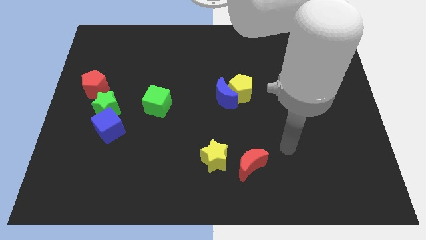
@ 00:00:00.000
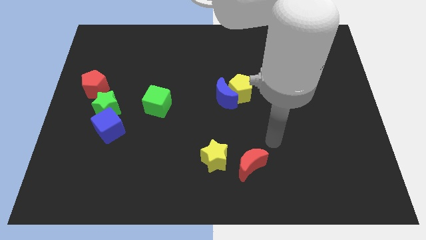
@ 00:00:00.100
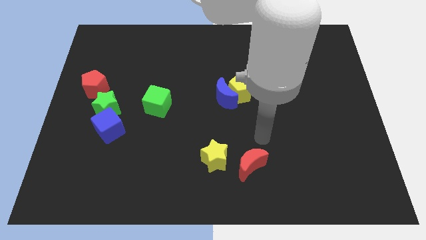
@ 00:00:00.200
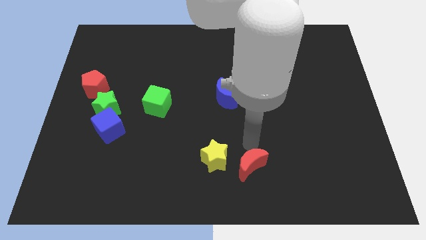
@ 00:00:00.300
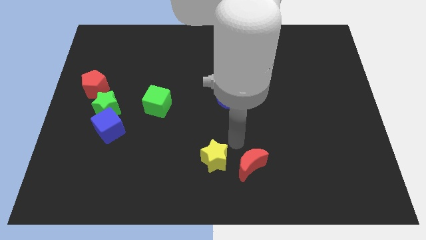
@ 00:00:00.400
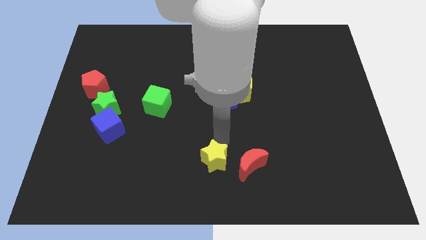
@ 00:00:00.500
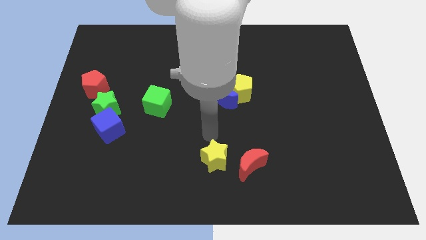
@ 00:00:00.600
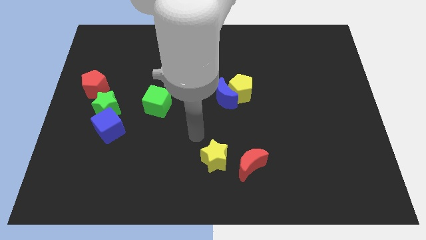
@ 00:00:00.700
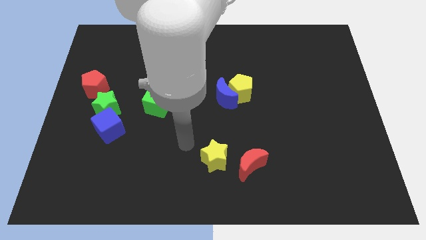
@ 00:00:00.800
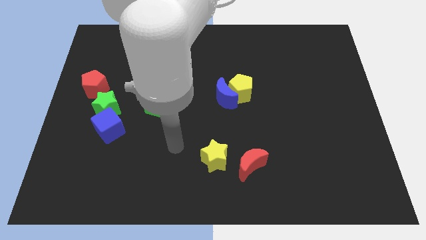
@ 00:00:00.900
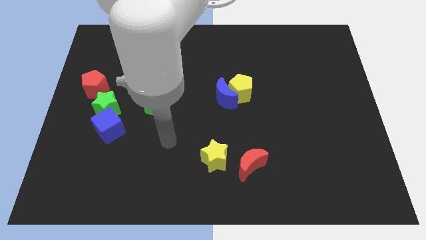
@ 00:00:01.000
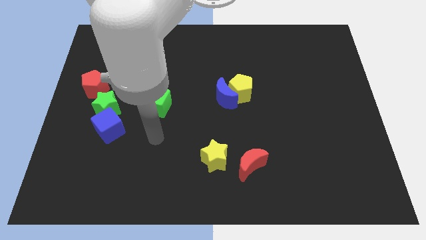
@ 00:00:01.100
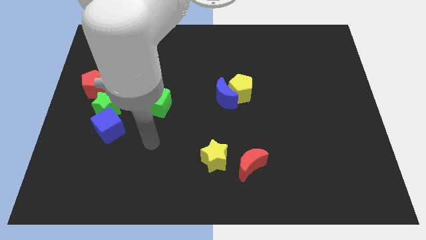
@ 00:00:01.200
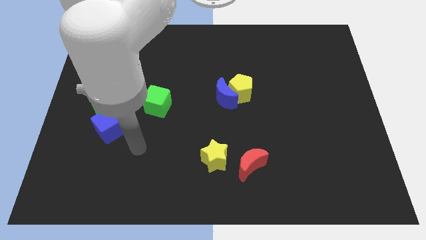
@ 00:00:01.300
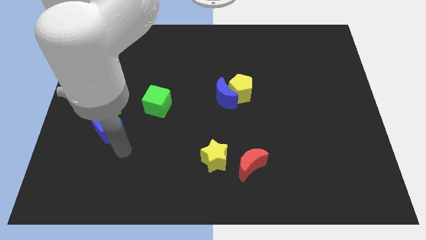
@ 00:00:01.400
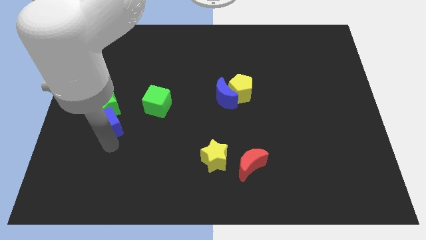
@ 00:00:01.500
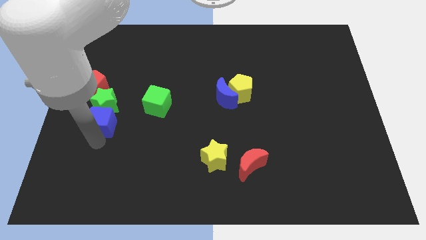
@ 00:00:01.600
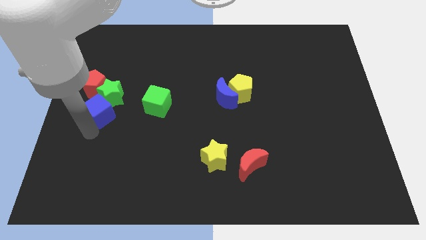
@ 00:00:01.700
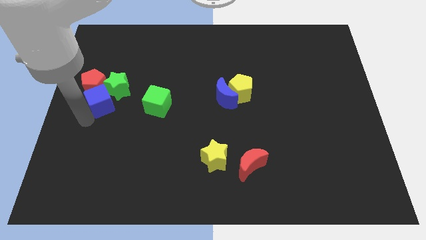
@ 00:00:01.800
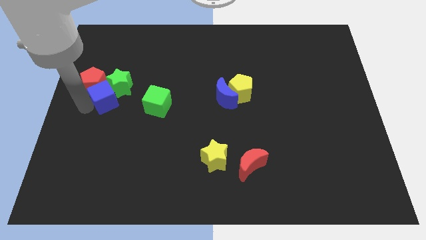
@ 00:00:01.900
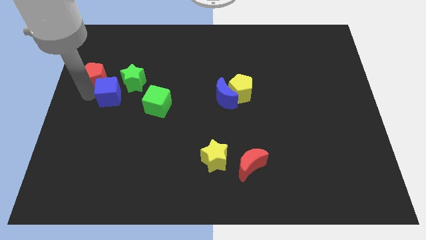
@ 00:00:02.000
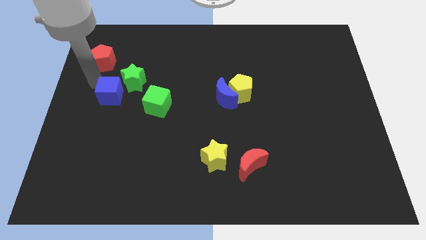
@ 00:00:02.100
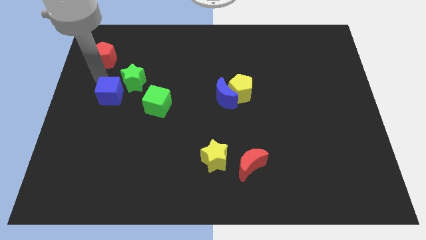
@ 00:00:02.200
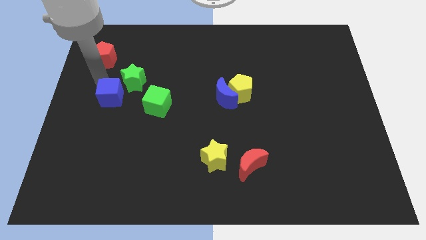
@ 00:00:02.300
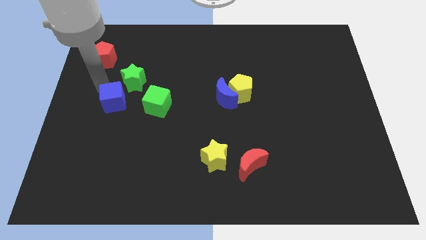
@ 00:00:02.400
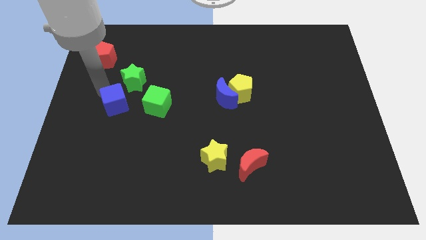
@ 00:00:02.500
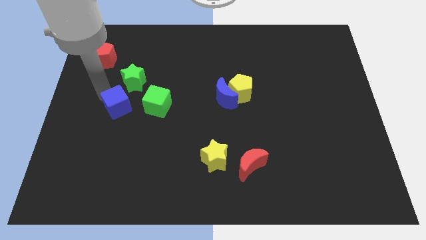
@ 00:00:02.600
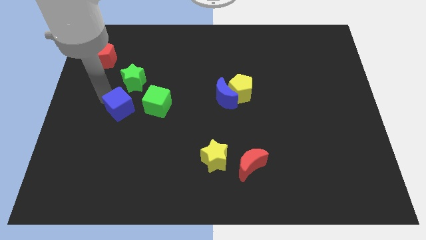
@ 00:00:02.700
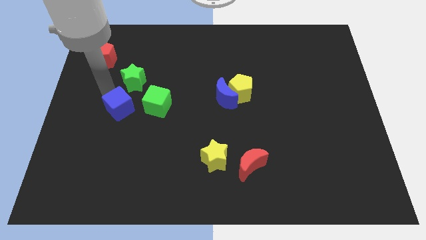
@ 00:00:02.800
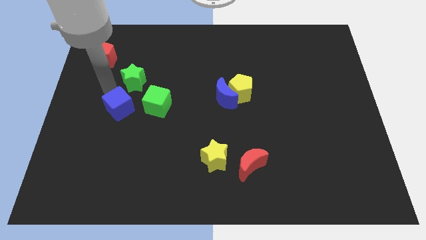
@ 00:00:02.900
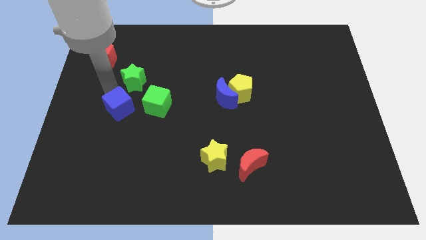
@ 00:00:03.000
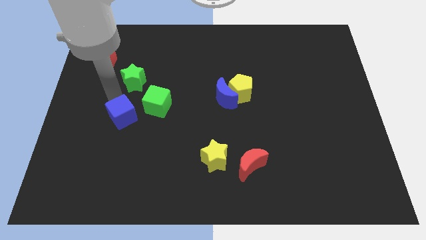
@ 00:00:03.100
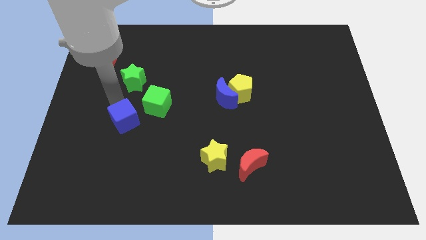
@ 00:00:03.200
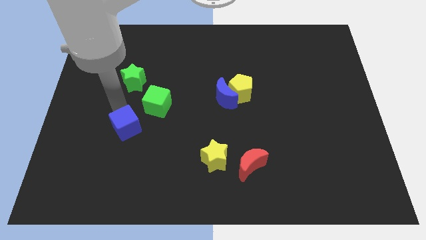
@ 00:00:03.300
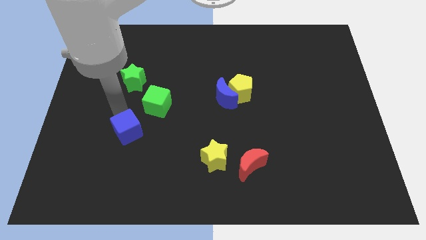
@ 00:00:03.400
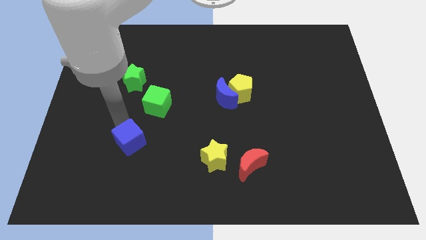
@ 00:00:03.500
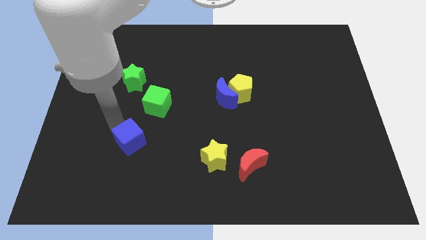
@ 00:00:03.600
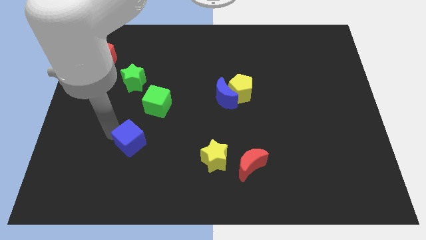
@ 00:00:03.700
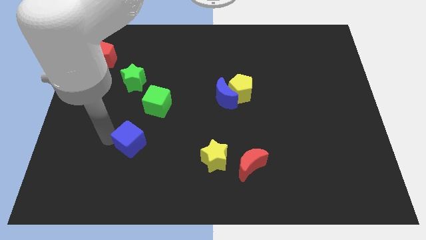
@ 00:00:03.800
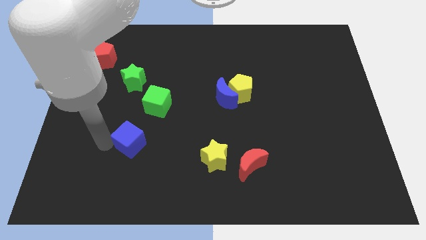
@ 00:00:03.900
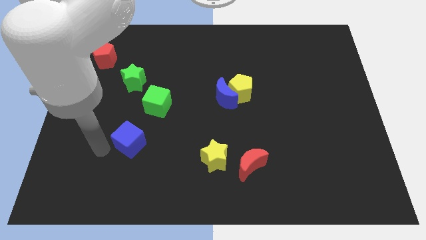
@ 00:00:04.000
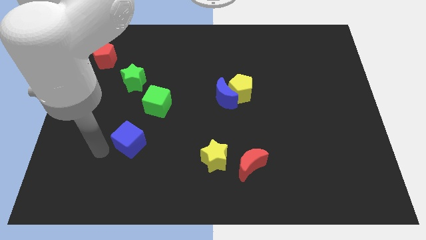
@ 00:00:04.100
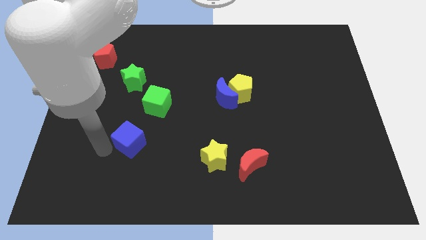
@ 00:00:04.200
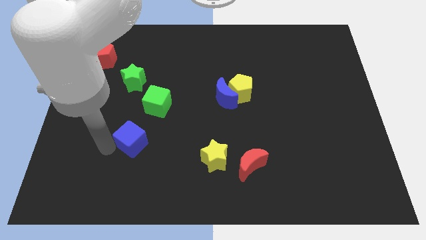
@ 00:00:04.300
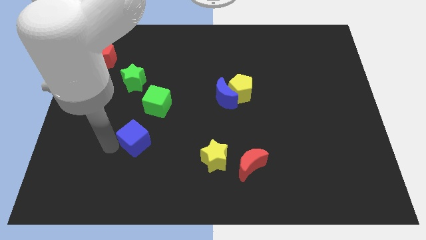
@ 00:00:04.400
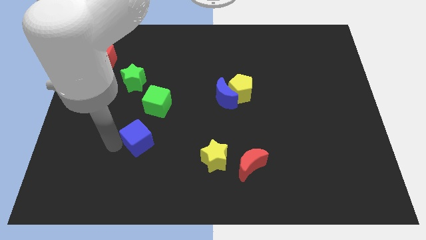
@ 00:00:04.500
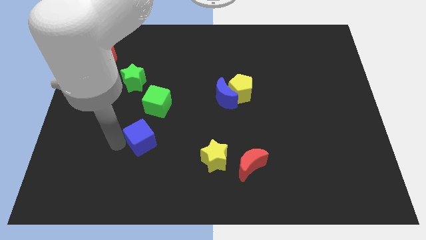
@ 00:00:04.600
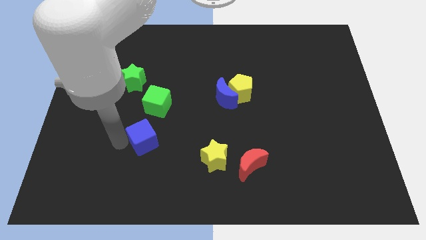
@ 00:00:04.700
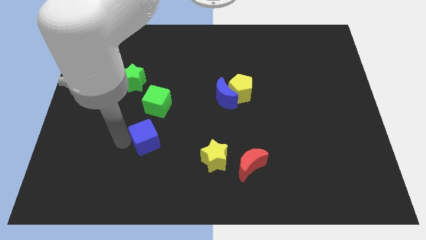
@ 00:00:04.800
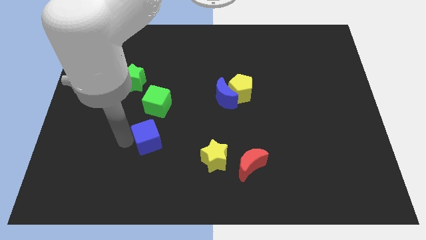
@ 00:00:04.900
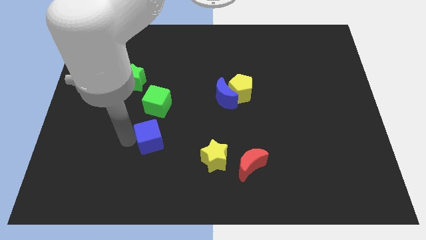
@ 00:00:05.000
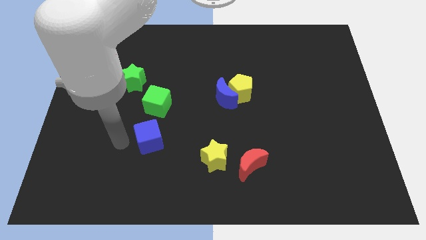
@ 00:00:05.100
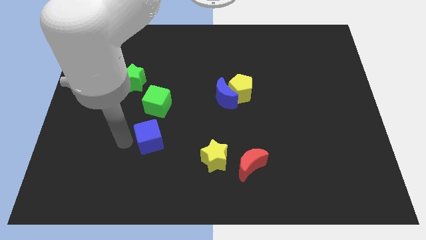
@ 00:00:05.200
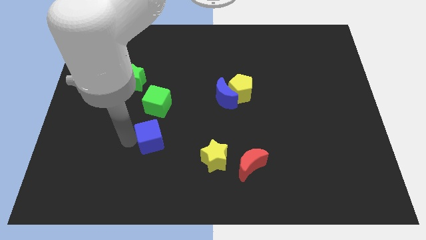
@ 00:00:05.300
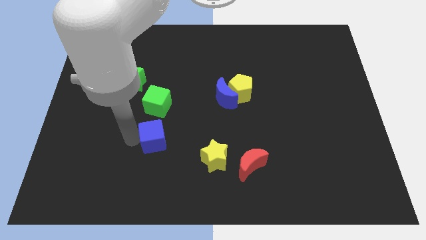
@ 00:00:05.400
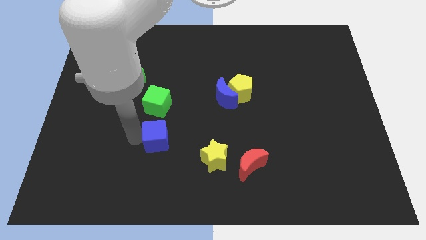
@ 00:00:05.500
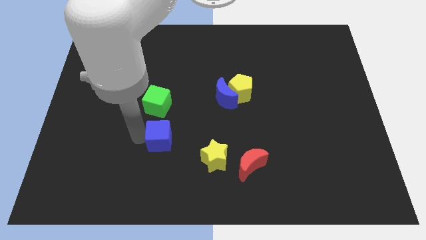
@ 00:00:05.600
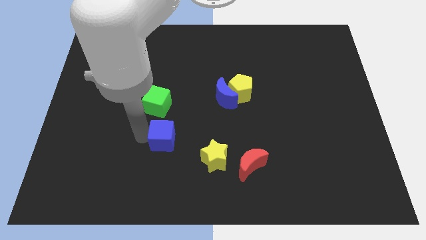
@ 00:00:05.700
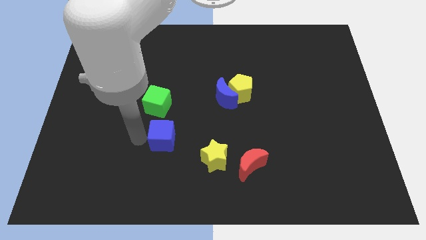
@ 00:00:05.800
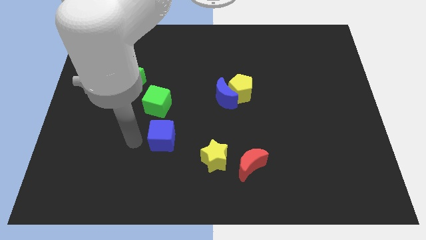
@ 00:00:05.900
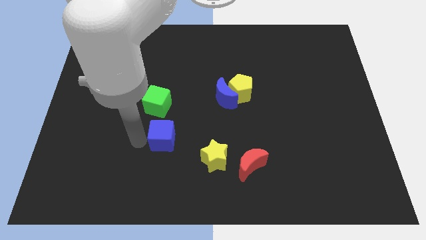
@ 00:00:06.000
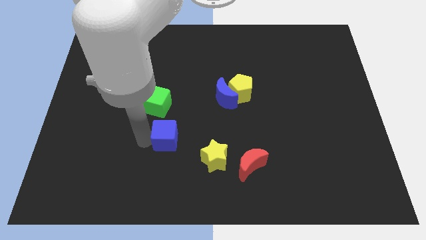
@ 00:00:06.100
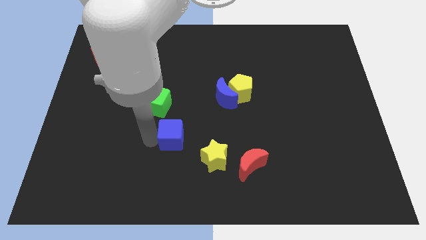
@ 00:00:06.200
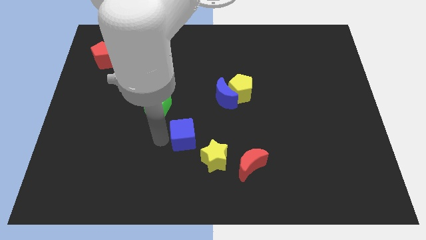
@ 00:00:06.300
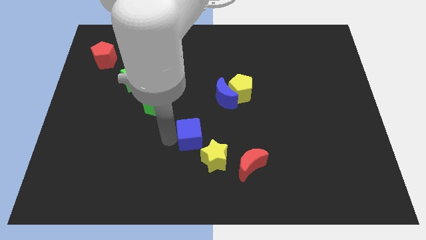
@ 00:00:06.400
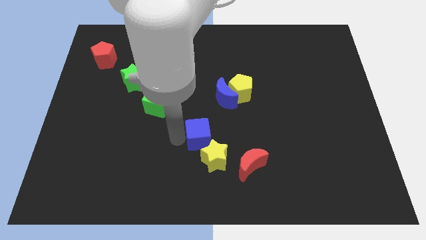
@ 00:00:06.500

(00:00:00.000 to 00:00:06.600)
slide the blue cube right

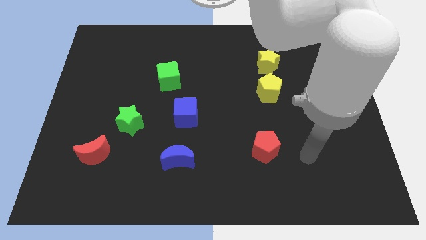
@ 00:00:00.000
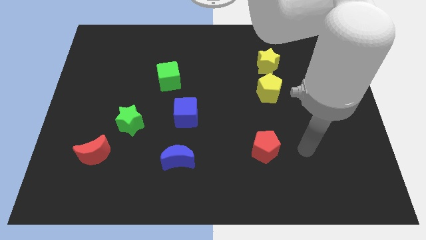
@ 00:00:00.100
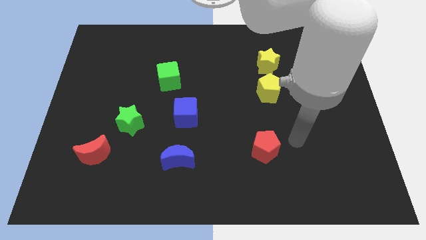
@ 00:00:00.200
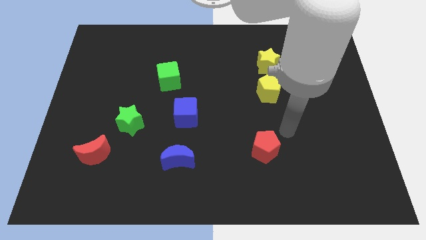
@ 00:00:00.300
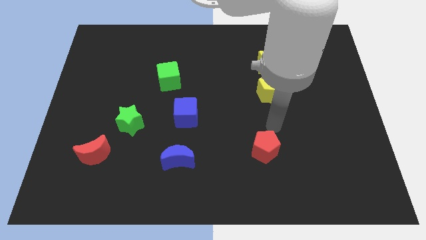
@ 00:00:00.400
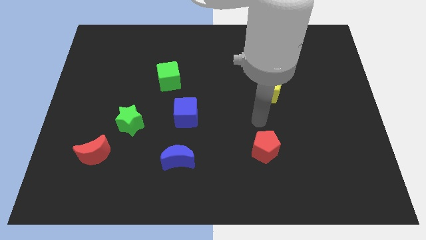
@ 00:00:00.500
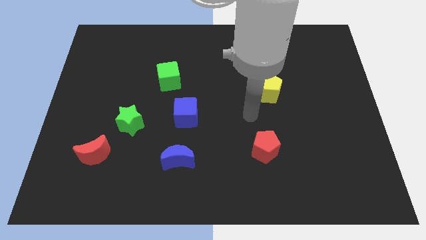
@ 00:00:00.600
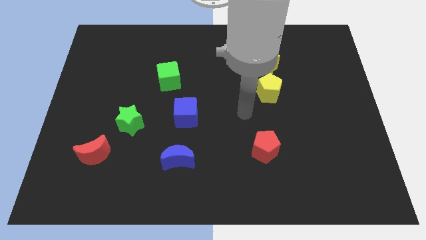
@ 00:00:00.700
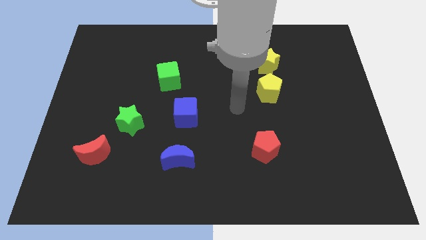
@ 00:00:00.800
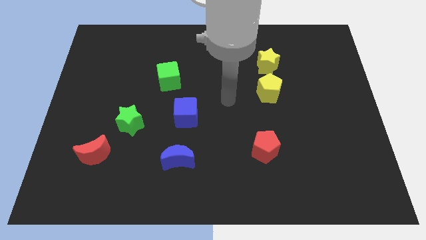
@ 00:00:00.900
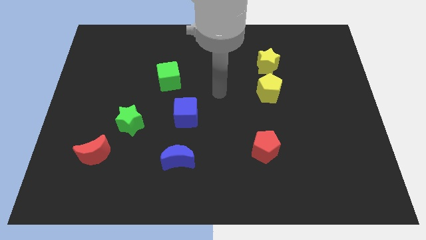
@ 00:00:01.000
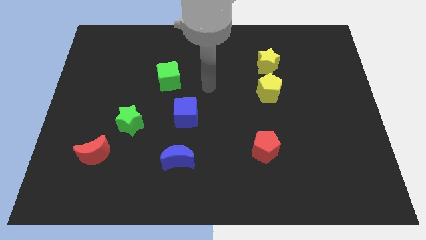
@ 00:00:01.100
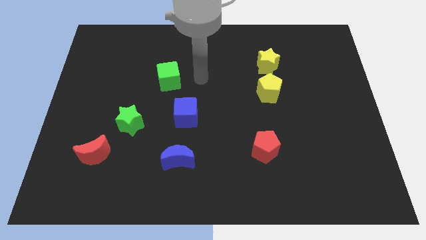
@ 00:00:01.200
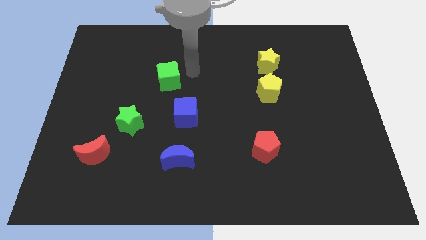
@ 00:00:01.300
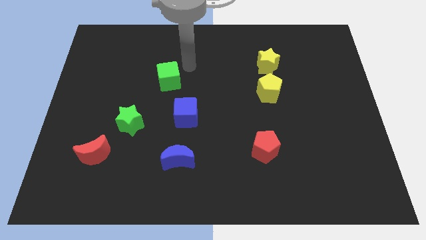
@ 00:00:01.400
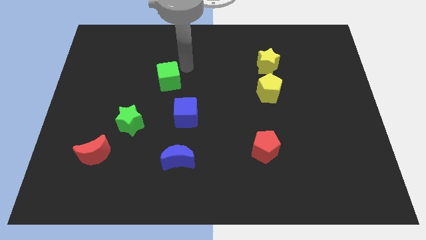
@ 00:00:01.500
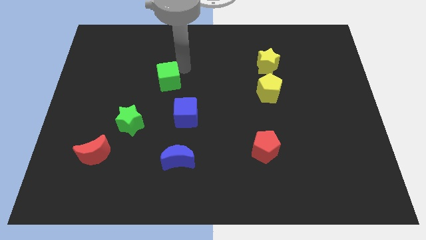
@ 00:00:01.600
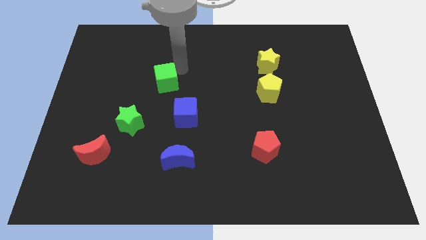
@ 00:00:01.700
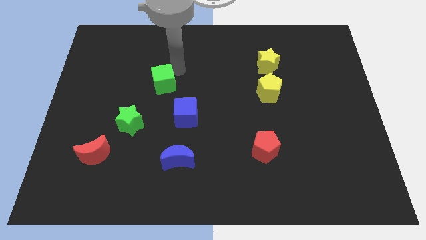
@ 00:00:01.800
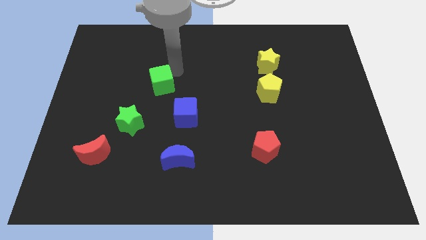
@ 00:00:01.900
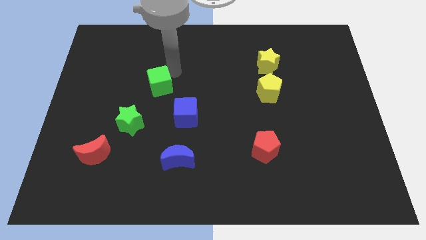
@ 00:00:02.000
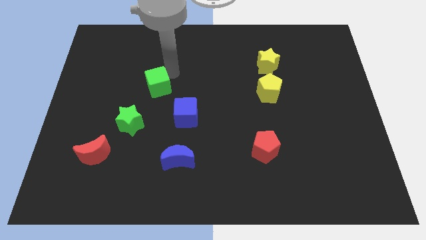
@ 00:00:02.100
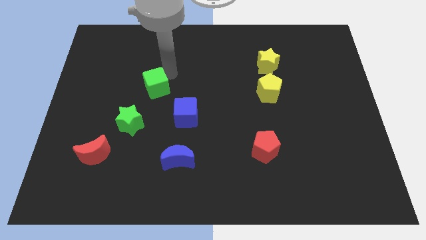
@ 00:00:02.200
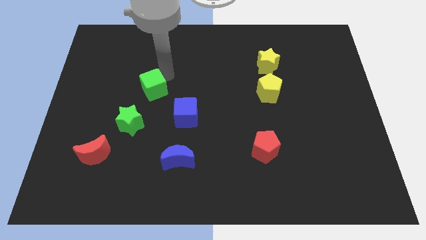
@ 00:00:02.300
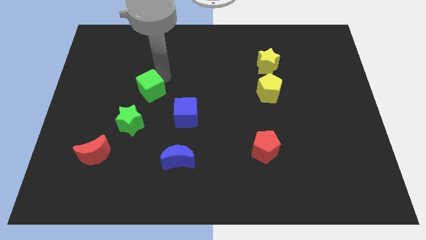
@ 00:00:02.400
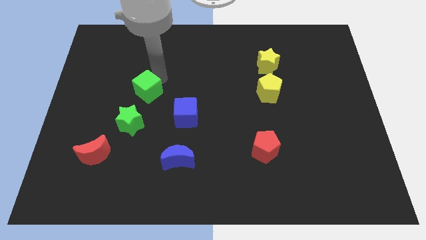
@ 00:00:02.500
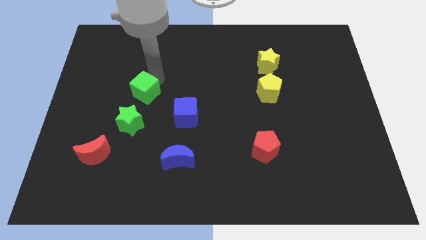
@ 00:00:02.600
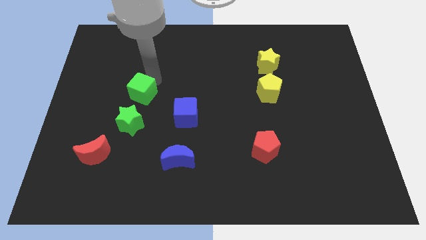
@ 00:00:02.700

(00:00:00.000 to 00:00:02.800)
slide the green cube down and to the left diagonally slightly
